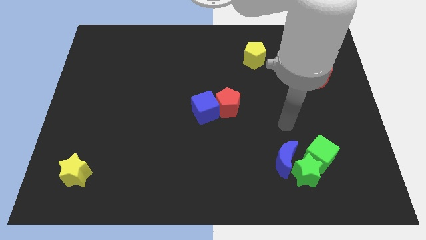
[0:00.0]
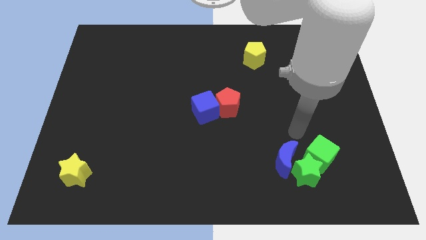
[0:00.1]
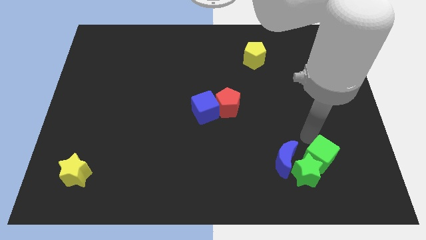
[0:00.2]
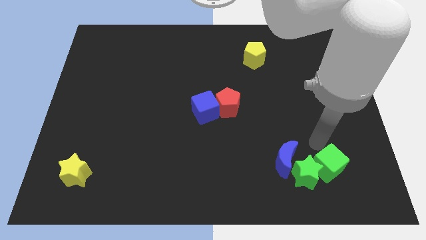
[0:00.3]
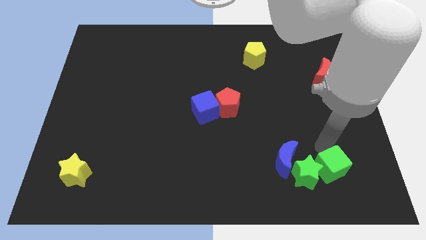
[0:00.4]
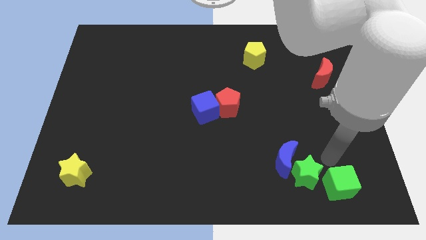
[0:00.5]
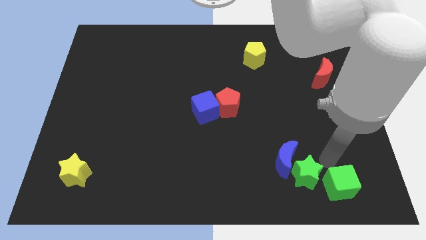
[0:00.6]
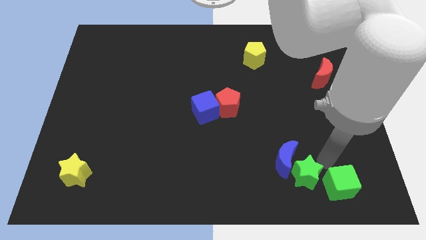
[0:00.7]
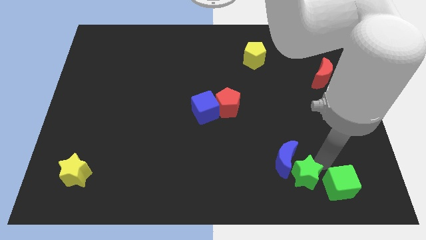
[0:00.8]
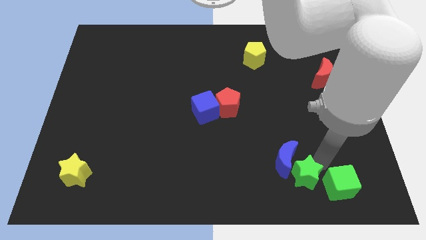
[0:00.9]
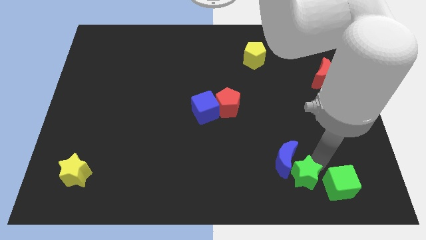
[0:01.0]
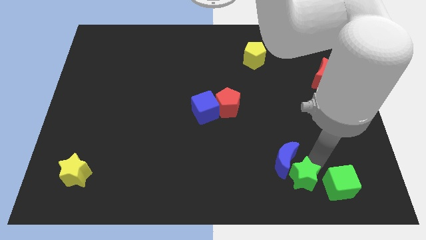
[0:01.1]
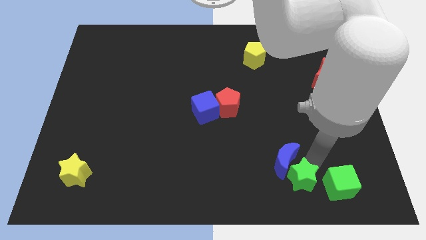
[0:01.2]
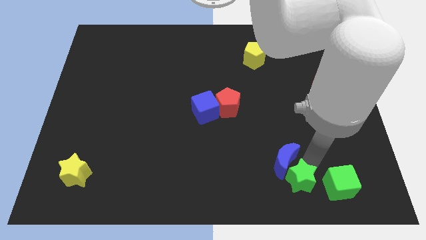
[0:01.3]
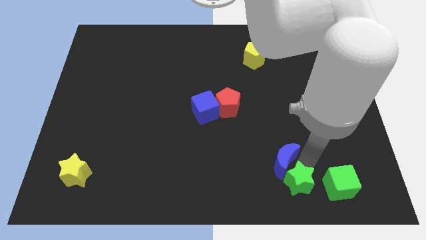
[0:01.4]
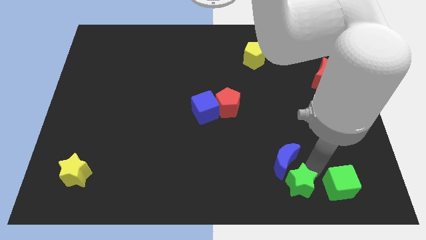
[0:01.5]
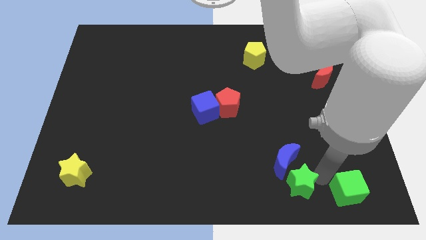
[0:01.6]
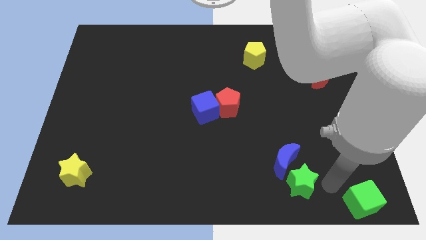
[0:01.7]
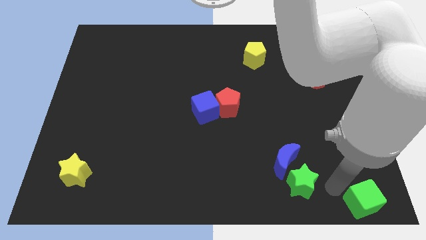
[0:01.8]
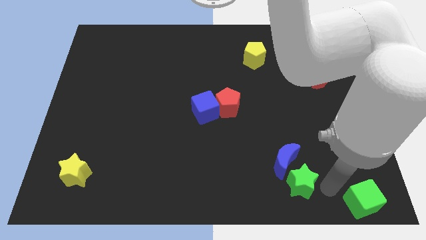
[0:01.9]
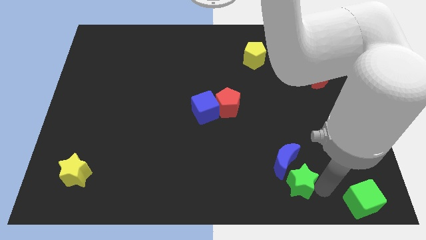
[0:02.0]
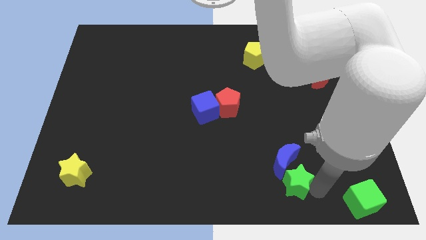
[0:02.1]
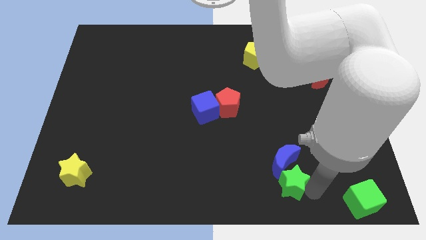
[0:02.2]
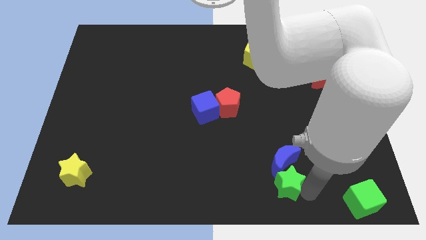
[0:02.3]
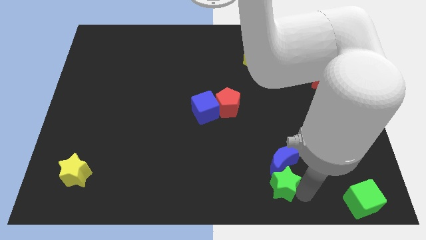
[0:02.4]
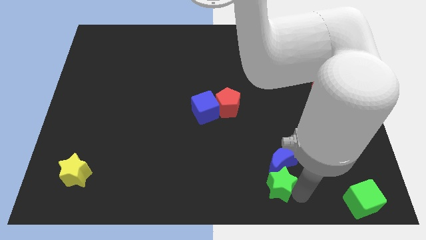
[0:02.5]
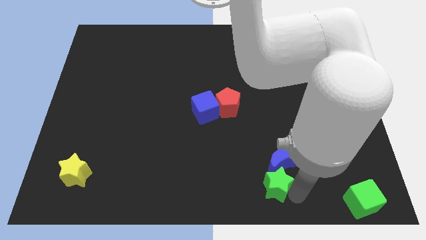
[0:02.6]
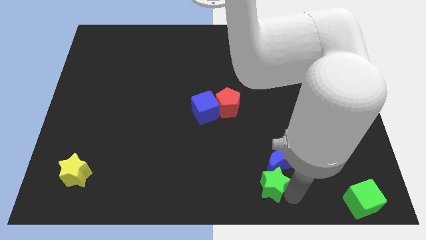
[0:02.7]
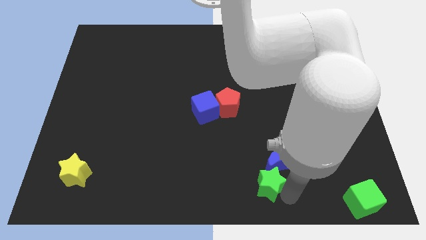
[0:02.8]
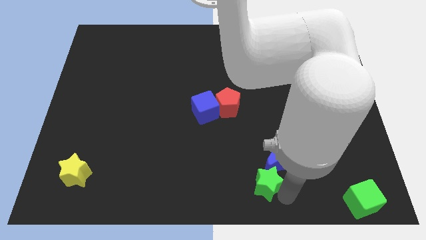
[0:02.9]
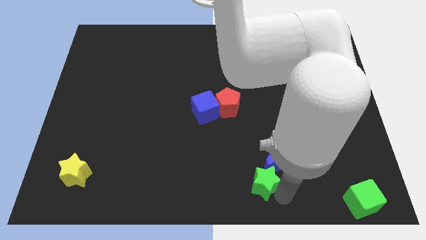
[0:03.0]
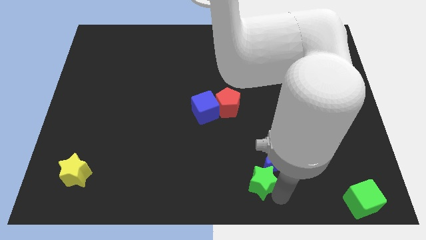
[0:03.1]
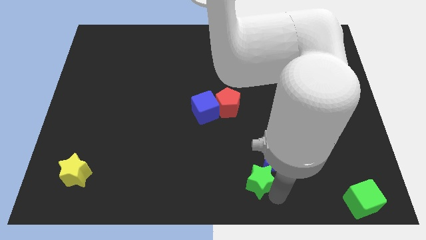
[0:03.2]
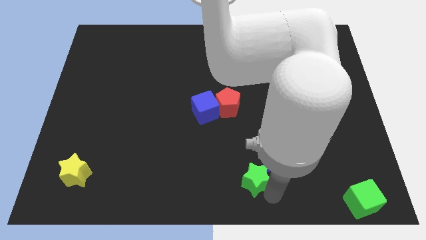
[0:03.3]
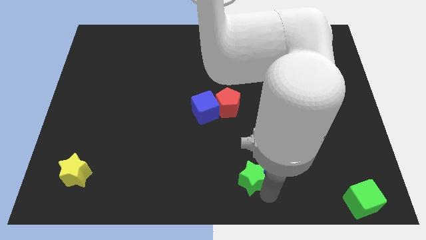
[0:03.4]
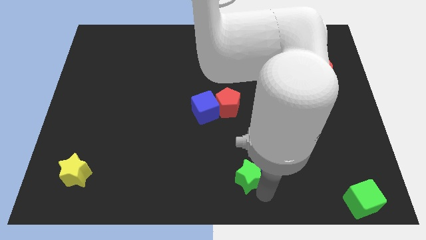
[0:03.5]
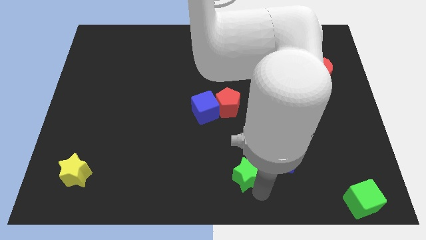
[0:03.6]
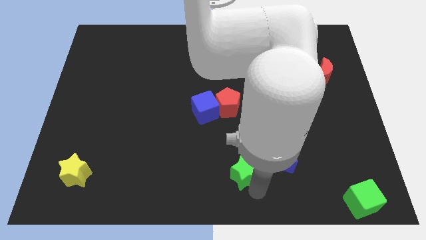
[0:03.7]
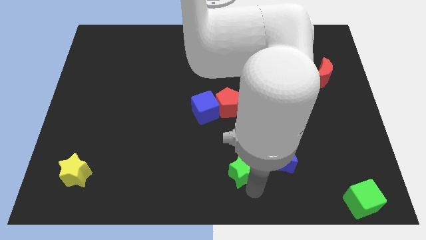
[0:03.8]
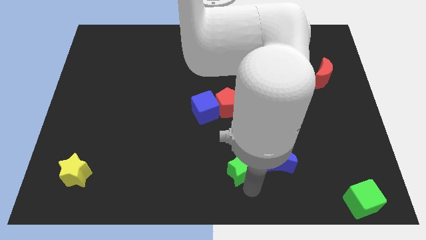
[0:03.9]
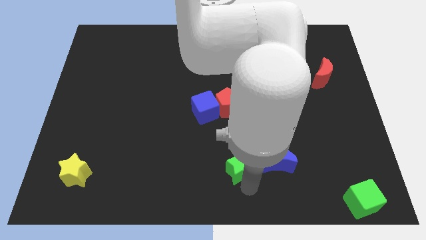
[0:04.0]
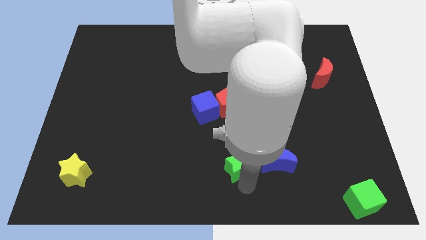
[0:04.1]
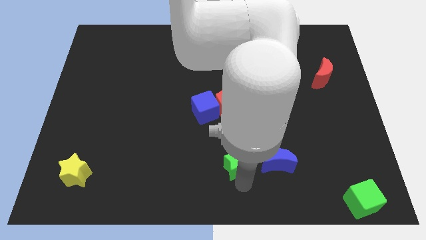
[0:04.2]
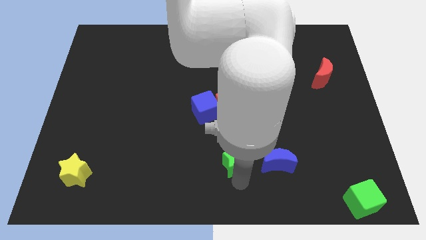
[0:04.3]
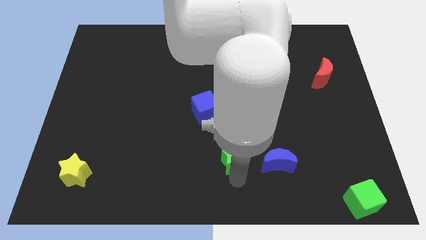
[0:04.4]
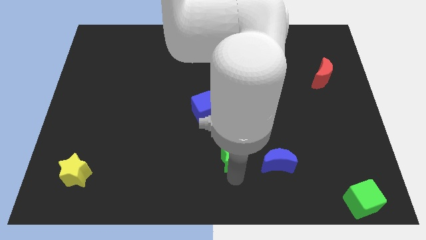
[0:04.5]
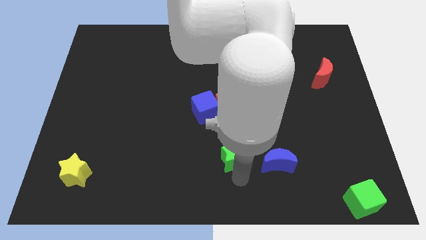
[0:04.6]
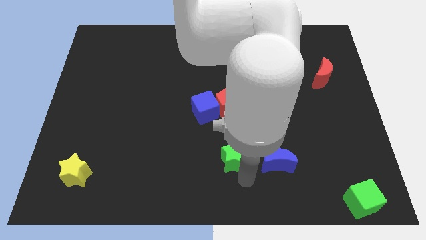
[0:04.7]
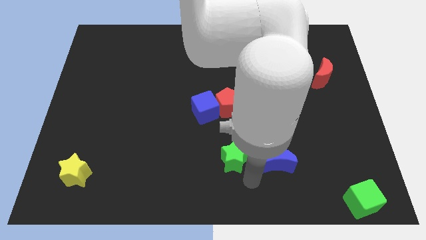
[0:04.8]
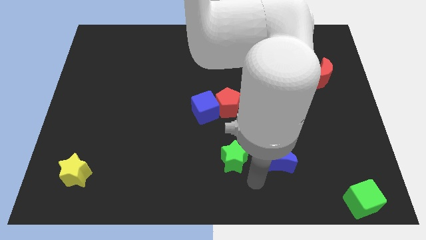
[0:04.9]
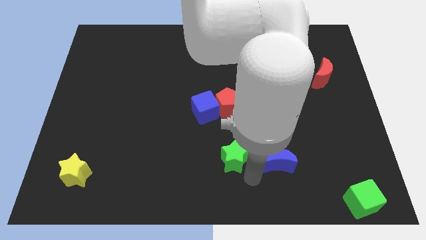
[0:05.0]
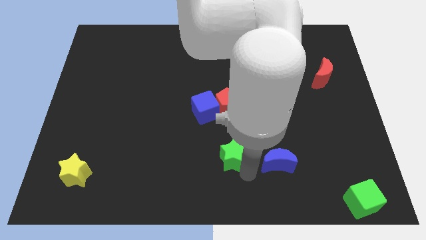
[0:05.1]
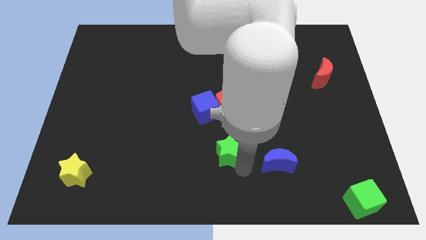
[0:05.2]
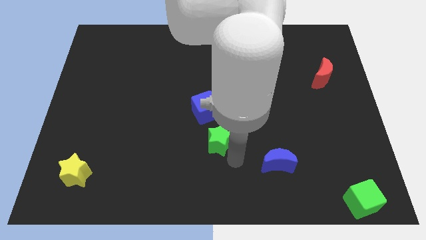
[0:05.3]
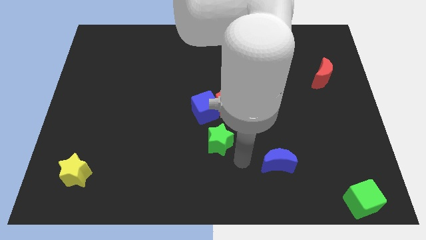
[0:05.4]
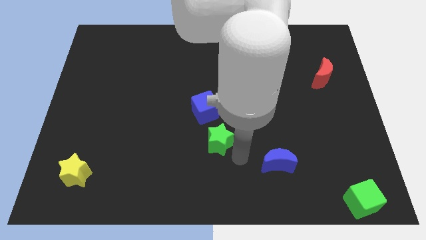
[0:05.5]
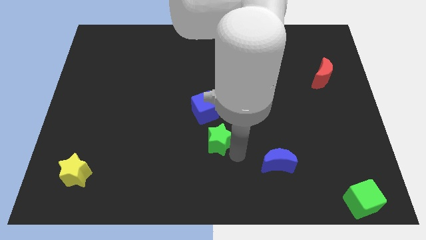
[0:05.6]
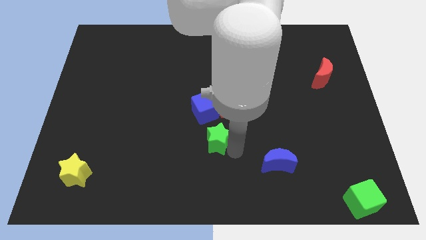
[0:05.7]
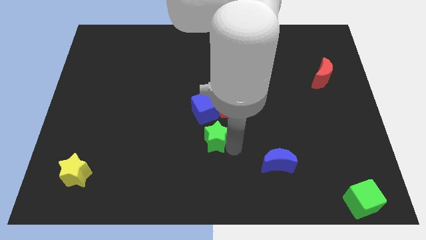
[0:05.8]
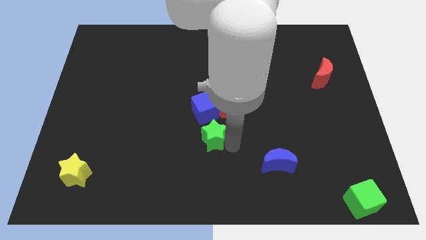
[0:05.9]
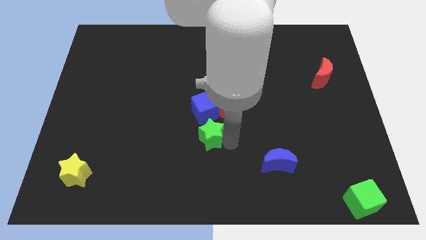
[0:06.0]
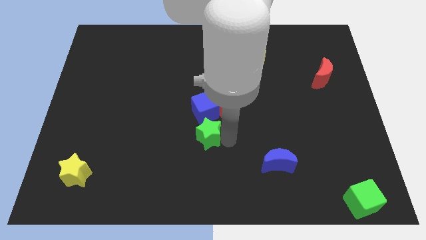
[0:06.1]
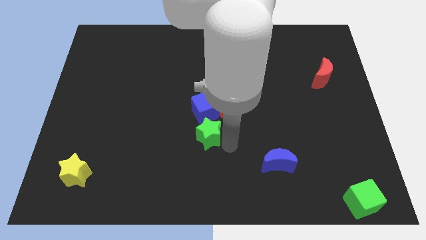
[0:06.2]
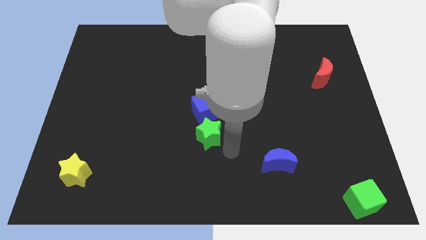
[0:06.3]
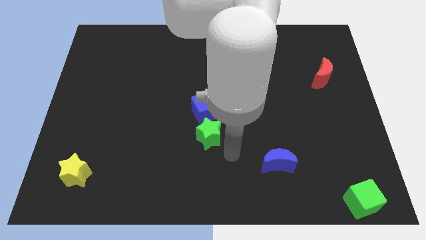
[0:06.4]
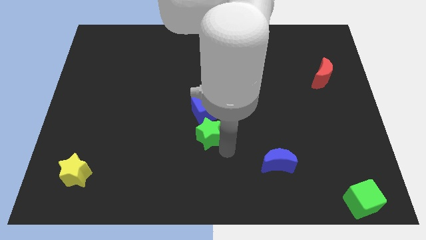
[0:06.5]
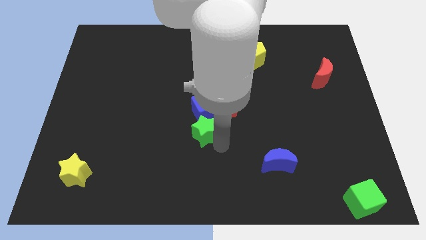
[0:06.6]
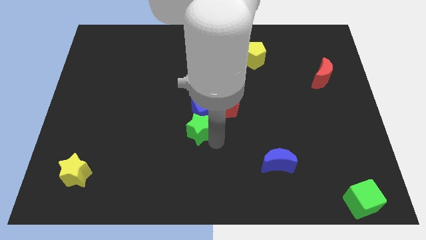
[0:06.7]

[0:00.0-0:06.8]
move the green star up and left

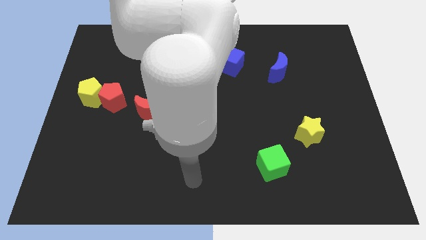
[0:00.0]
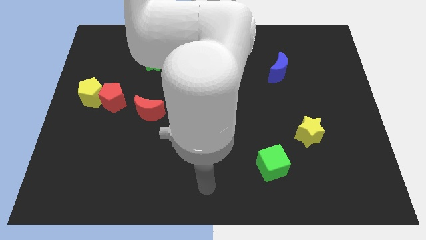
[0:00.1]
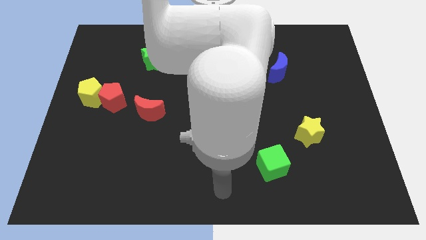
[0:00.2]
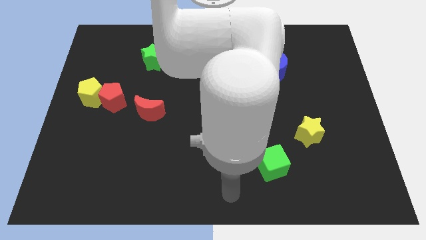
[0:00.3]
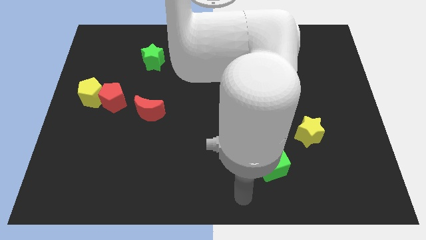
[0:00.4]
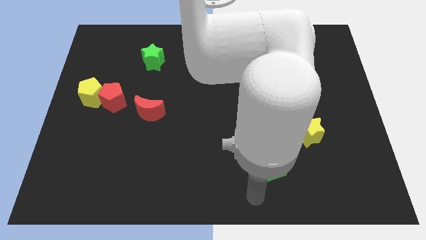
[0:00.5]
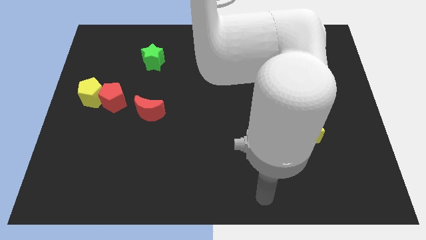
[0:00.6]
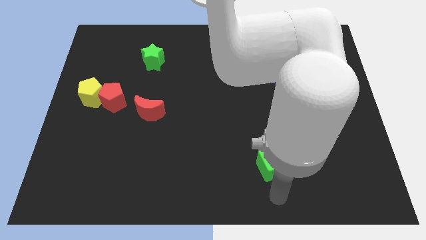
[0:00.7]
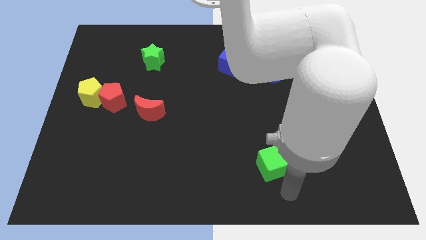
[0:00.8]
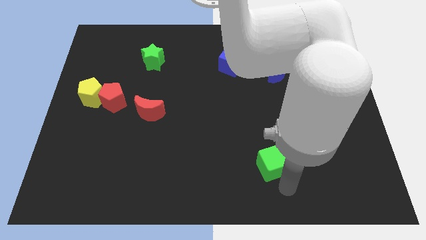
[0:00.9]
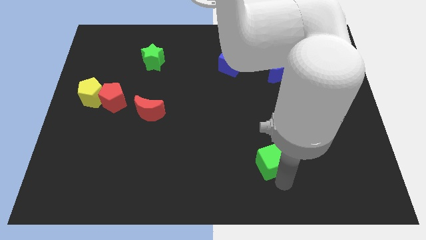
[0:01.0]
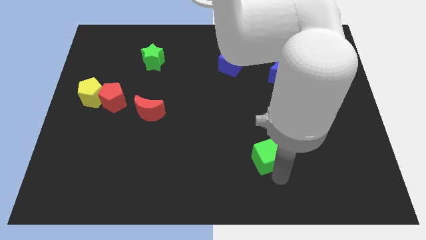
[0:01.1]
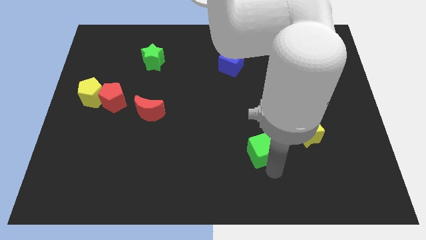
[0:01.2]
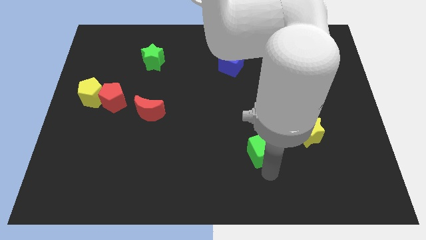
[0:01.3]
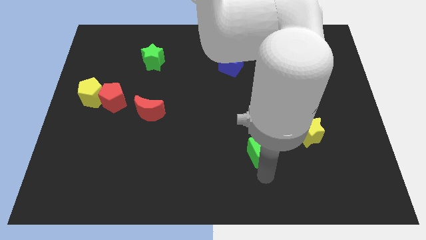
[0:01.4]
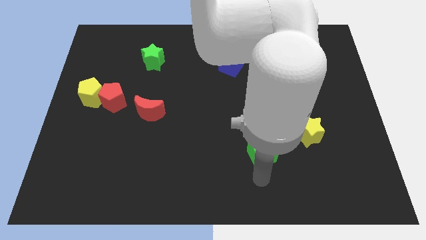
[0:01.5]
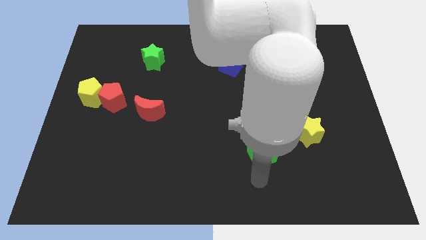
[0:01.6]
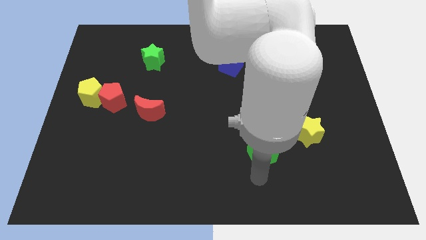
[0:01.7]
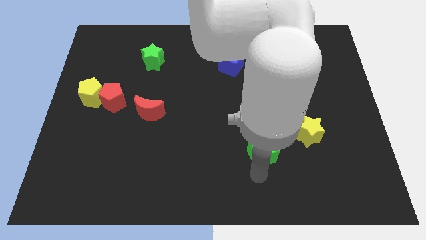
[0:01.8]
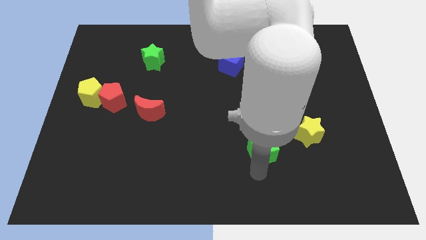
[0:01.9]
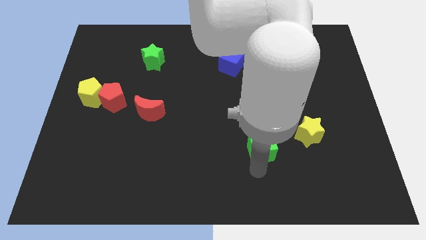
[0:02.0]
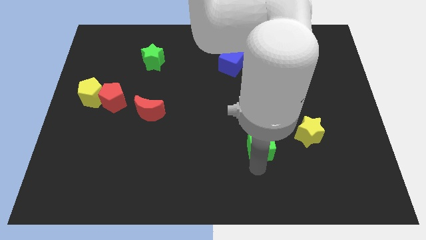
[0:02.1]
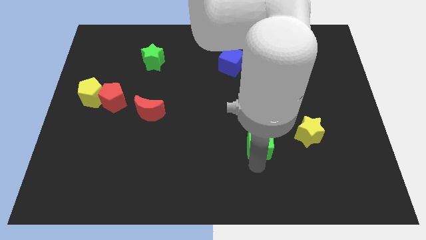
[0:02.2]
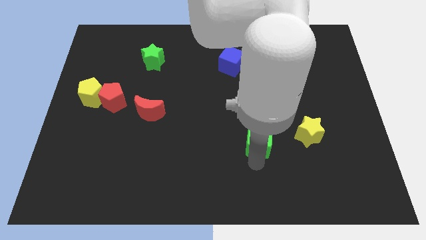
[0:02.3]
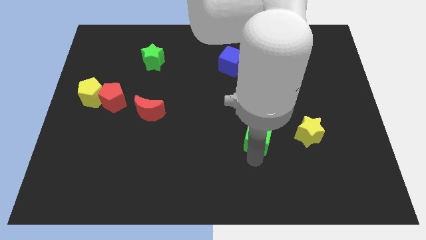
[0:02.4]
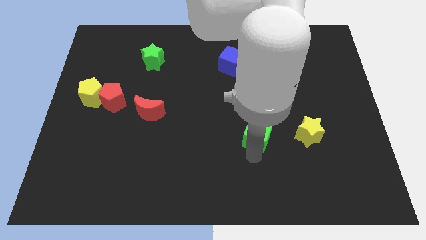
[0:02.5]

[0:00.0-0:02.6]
slightly move the green cube upwards
